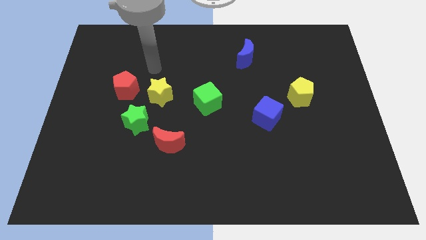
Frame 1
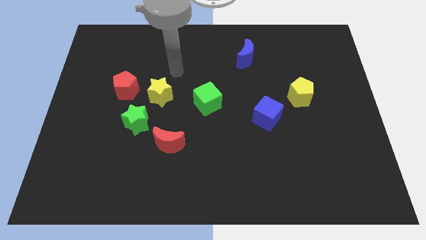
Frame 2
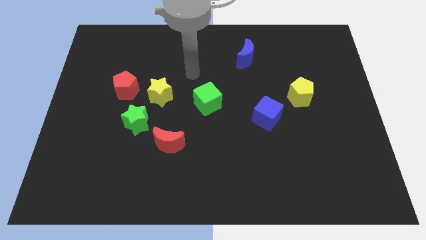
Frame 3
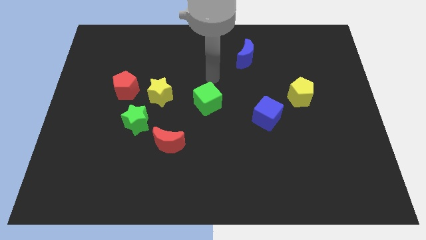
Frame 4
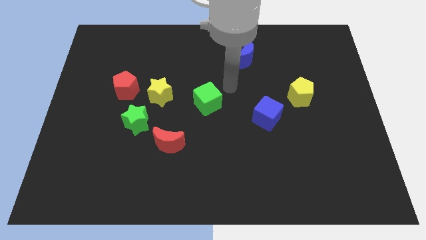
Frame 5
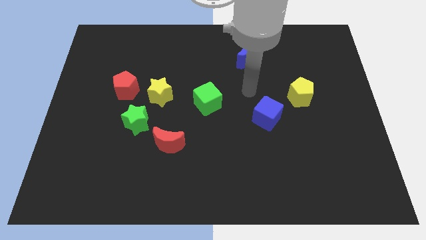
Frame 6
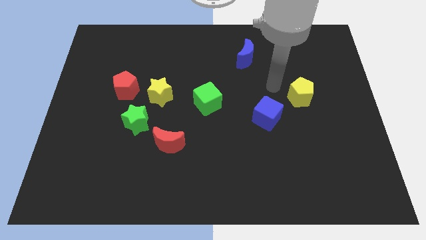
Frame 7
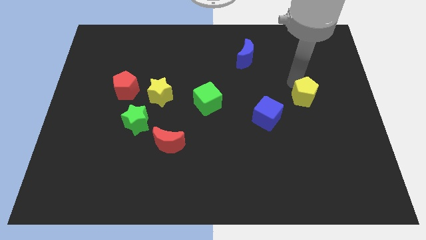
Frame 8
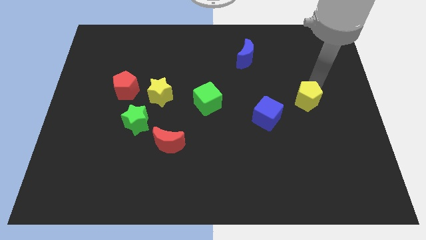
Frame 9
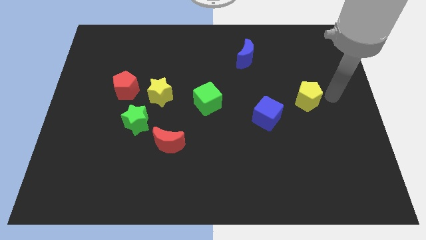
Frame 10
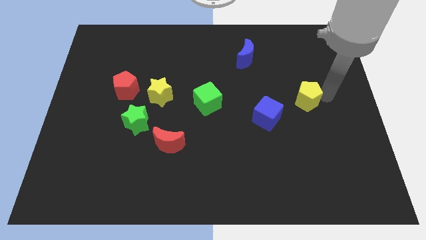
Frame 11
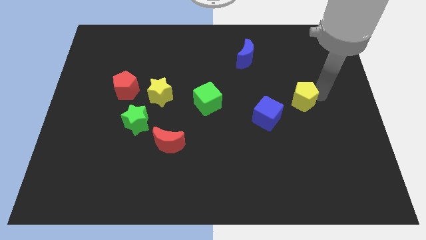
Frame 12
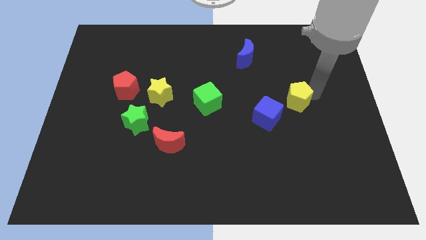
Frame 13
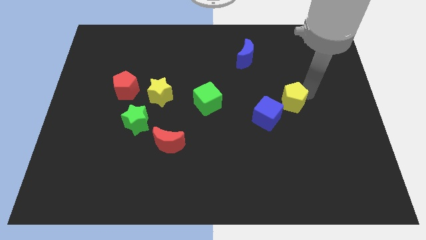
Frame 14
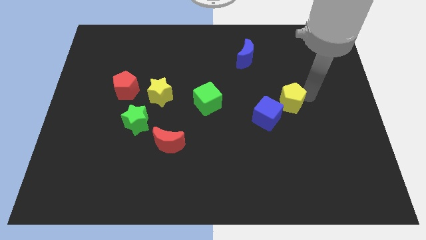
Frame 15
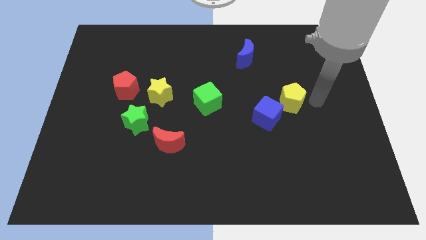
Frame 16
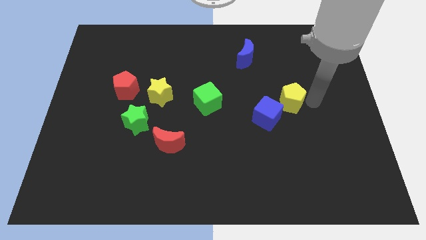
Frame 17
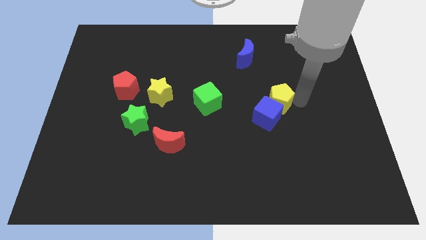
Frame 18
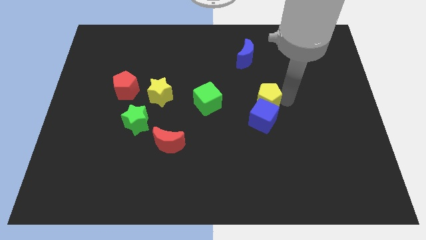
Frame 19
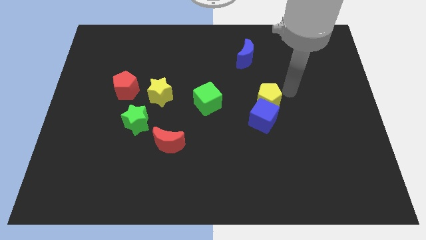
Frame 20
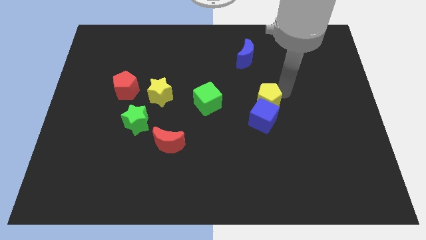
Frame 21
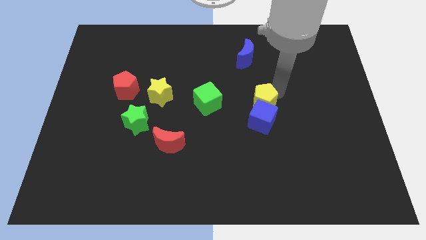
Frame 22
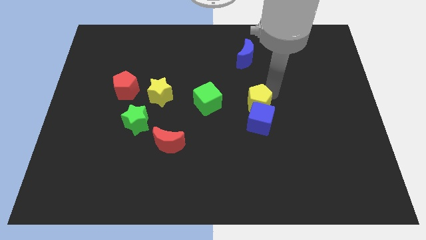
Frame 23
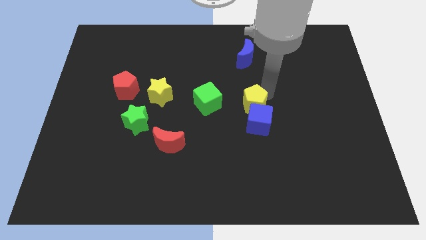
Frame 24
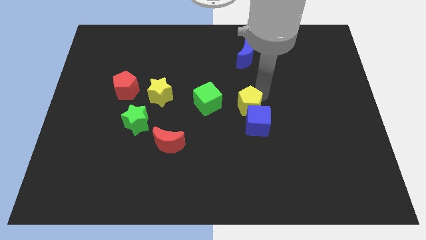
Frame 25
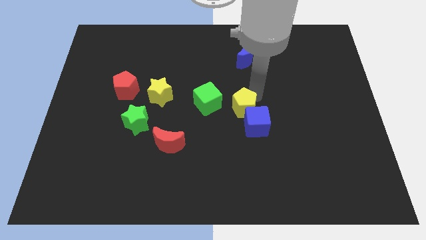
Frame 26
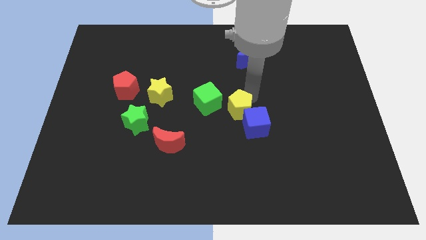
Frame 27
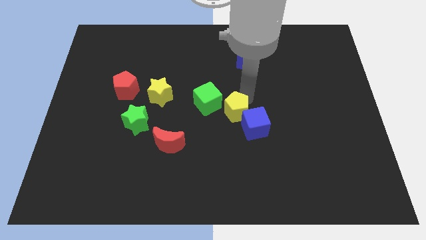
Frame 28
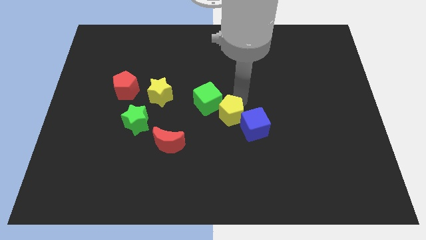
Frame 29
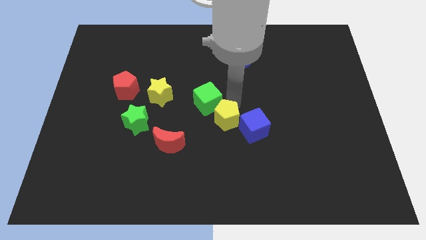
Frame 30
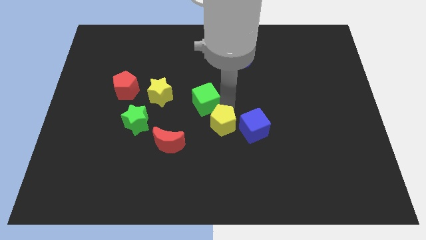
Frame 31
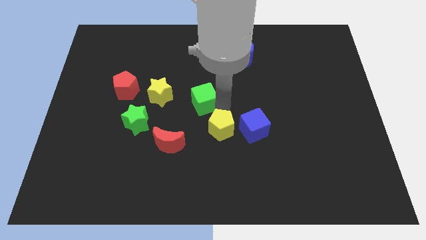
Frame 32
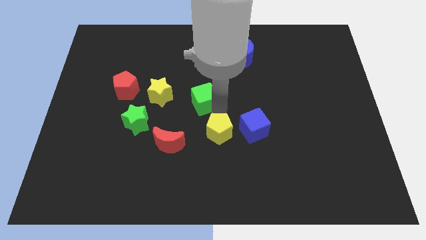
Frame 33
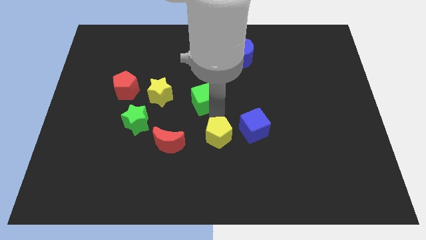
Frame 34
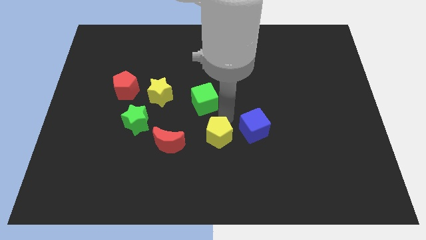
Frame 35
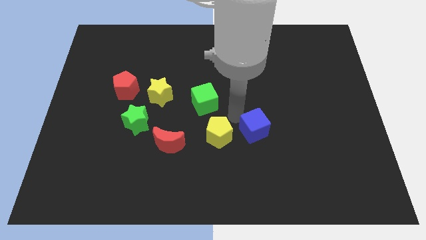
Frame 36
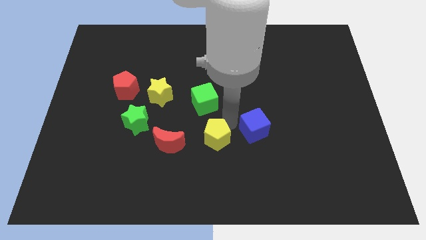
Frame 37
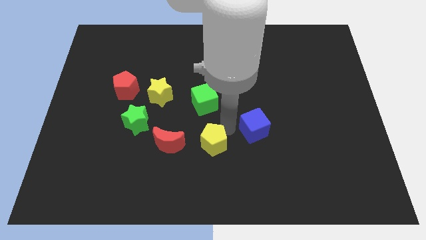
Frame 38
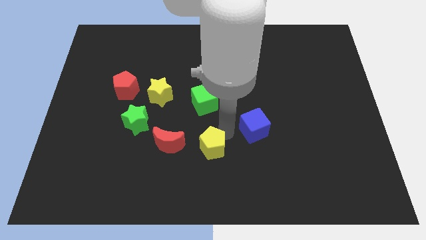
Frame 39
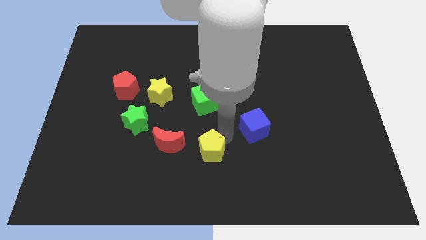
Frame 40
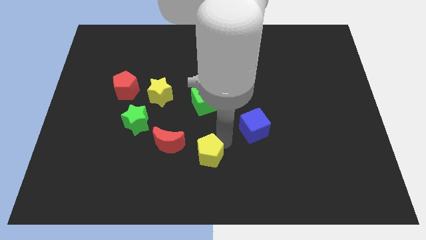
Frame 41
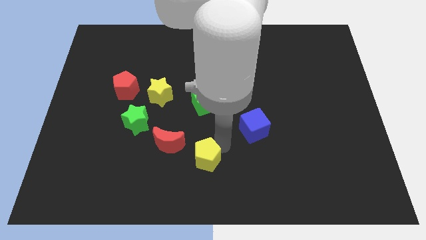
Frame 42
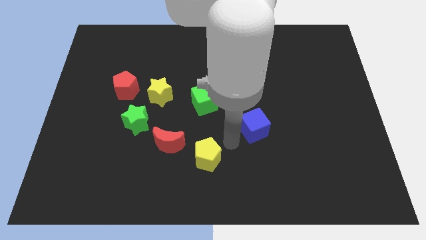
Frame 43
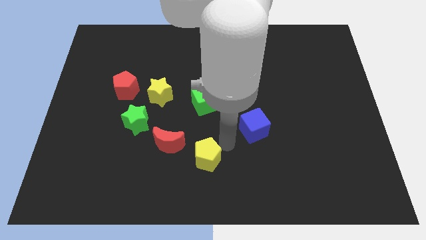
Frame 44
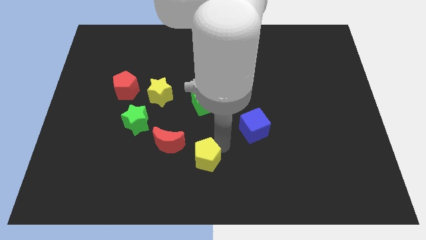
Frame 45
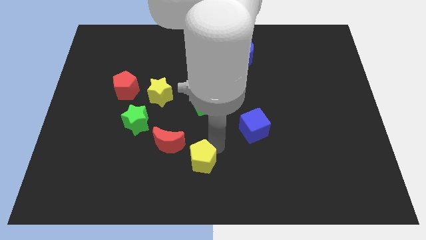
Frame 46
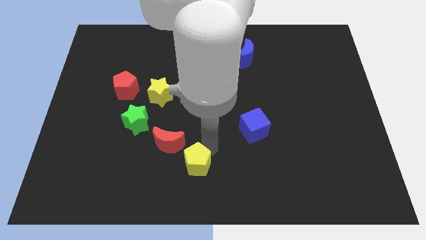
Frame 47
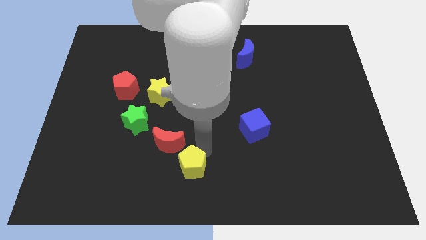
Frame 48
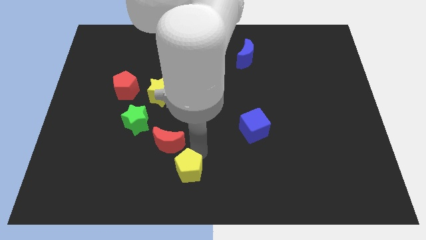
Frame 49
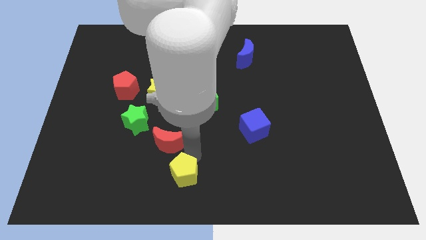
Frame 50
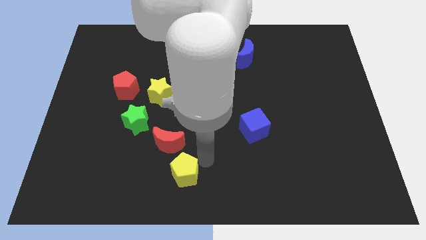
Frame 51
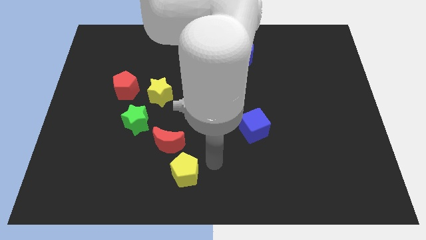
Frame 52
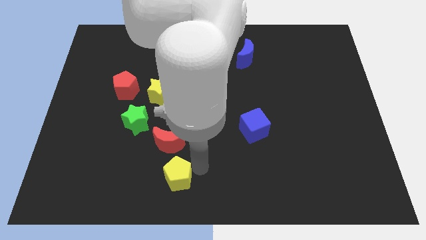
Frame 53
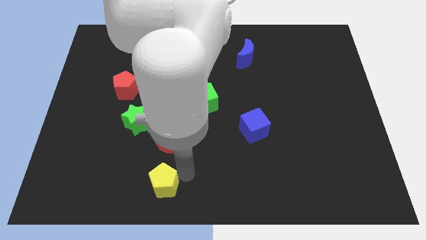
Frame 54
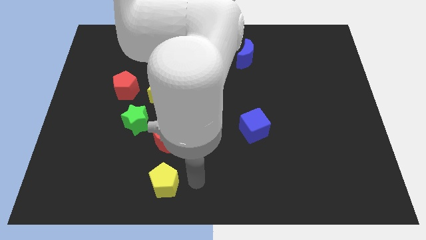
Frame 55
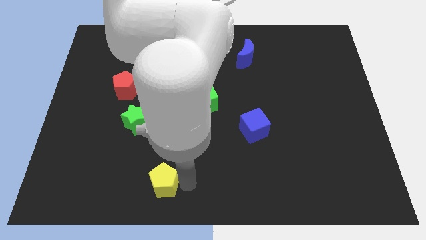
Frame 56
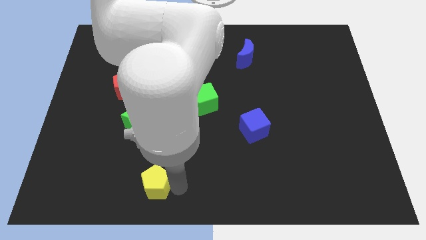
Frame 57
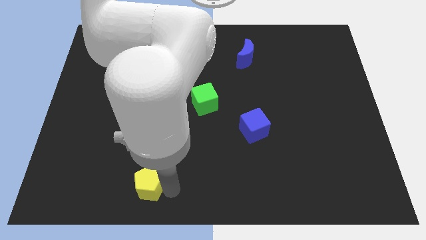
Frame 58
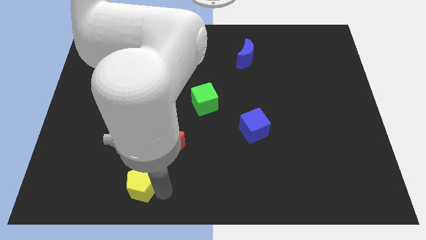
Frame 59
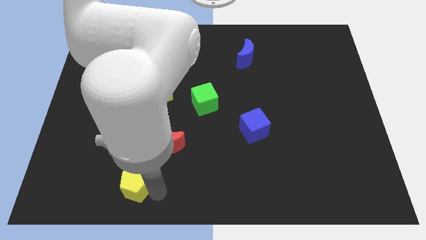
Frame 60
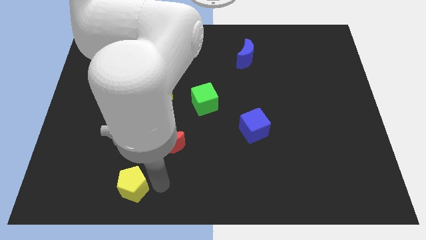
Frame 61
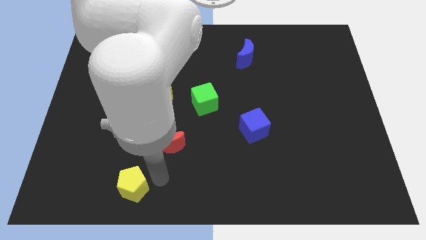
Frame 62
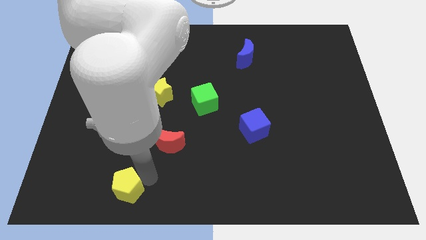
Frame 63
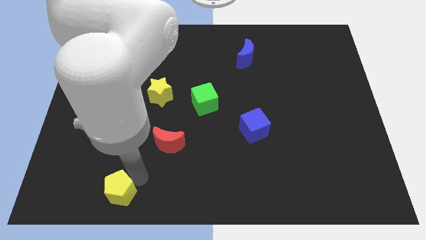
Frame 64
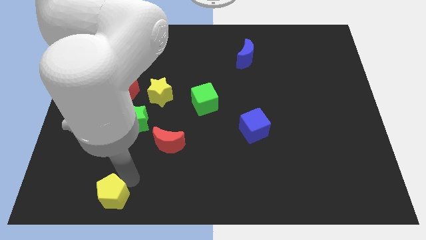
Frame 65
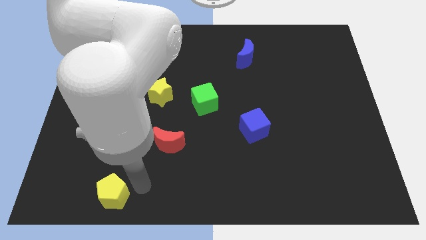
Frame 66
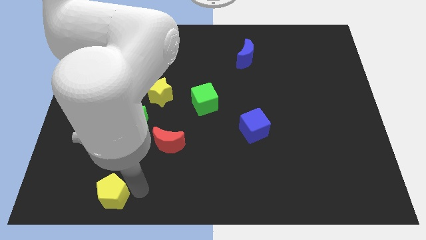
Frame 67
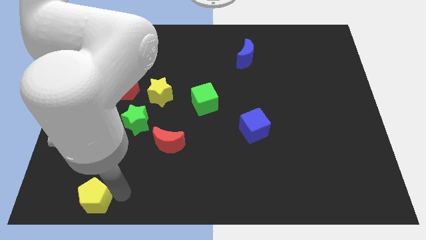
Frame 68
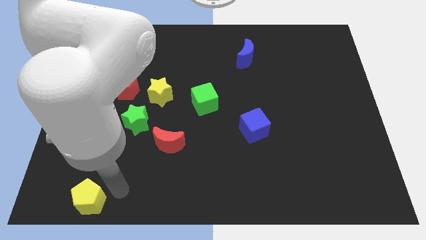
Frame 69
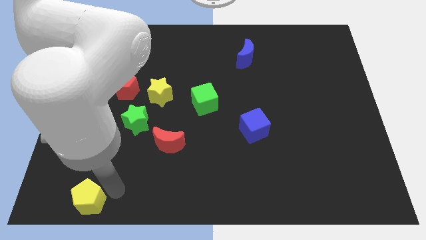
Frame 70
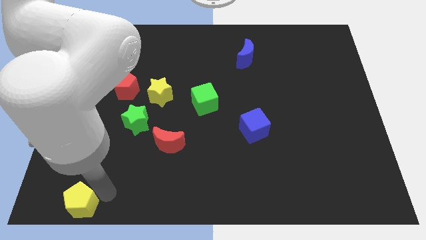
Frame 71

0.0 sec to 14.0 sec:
push the yellow pentagon to the bottom left of the board
